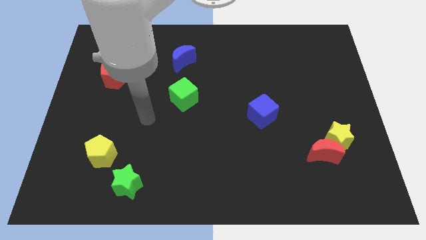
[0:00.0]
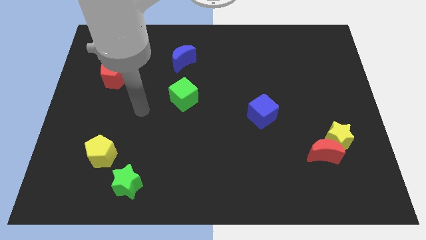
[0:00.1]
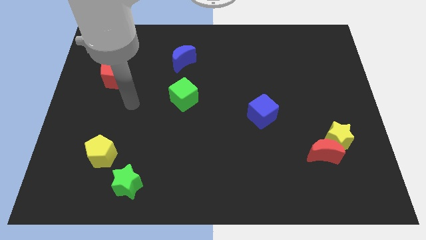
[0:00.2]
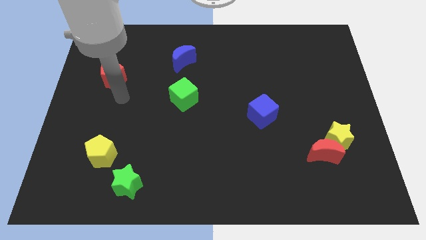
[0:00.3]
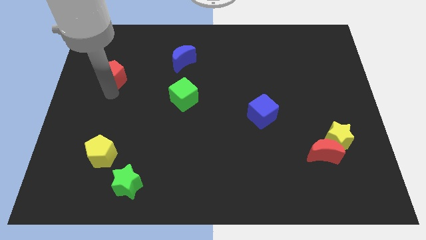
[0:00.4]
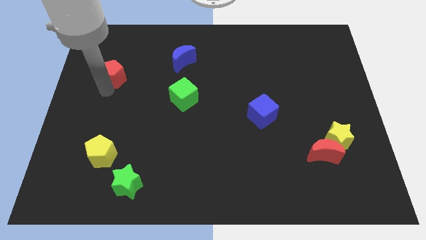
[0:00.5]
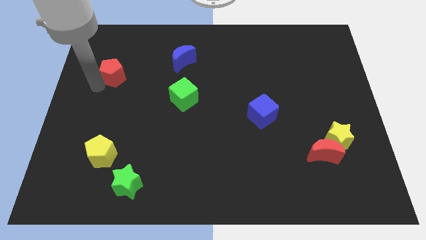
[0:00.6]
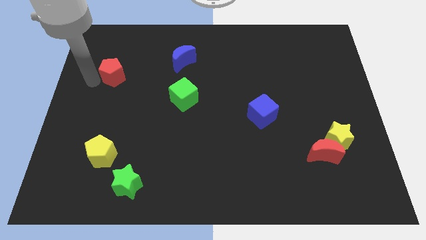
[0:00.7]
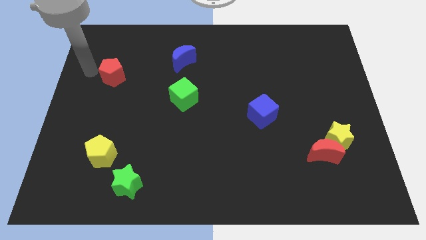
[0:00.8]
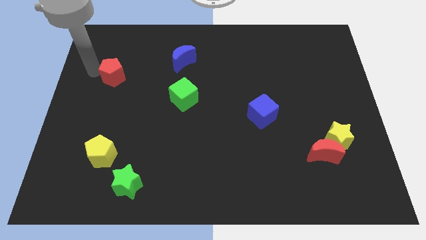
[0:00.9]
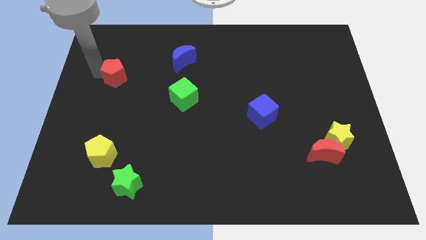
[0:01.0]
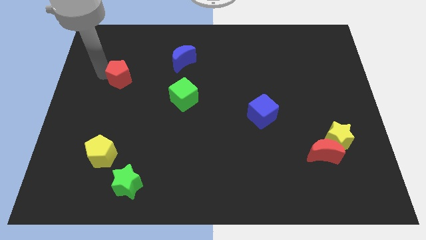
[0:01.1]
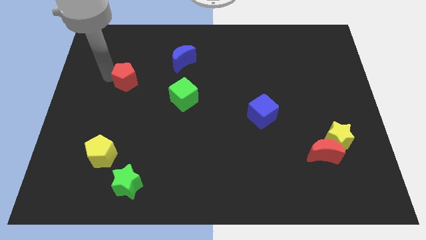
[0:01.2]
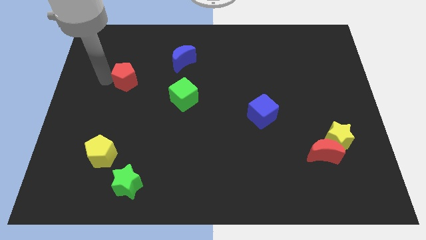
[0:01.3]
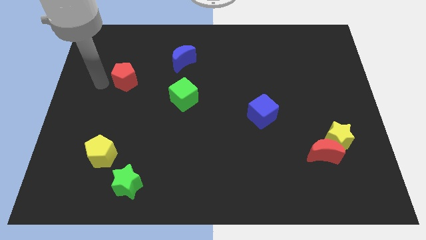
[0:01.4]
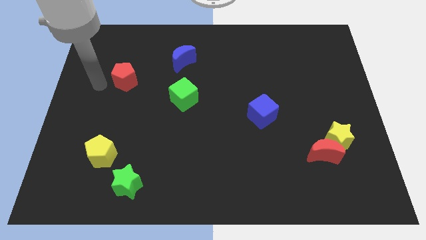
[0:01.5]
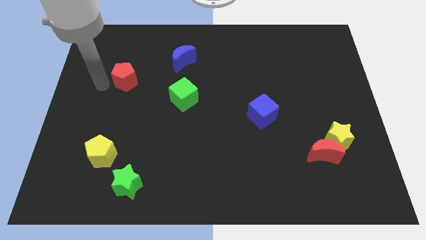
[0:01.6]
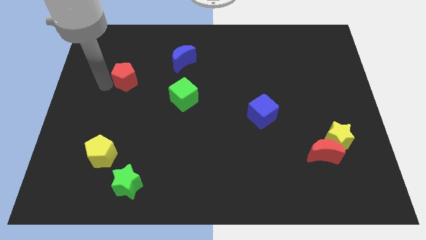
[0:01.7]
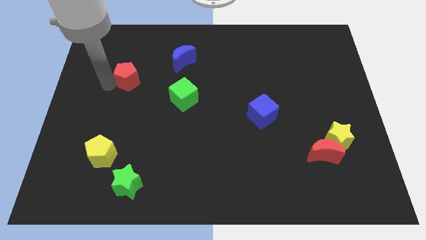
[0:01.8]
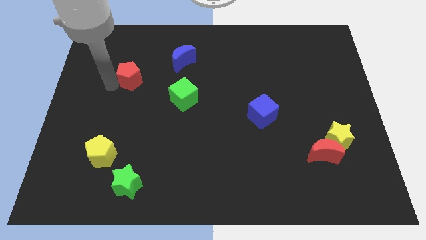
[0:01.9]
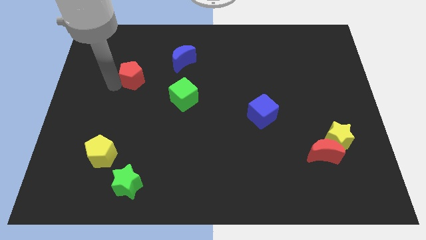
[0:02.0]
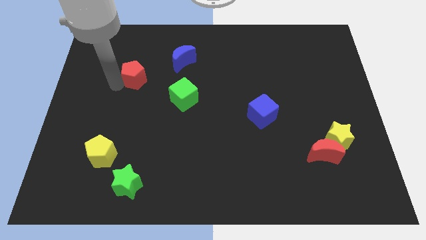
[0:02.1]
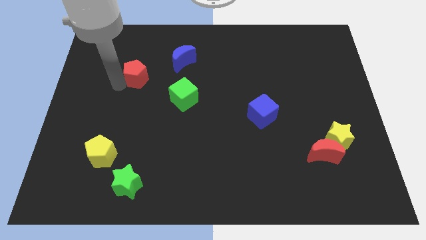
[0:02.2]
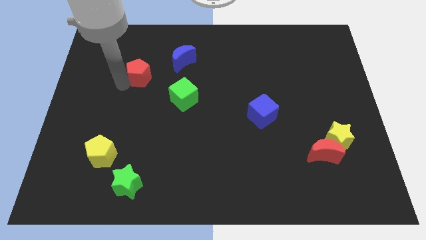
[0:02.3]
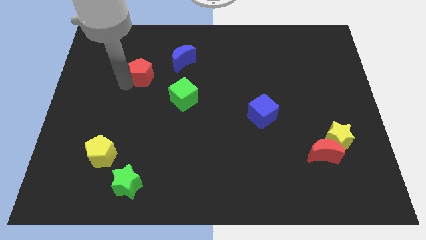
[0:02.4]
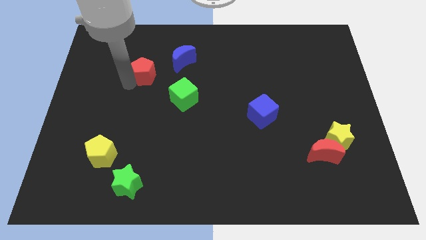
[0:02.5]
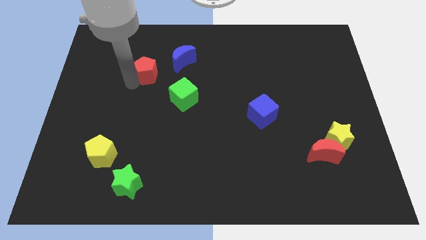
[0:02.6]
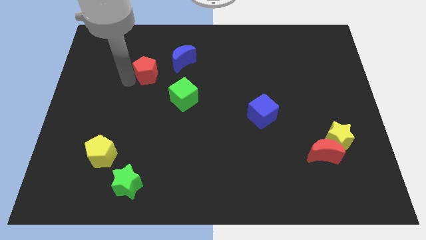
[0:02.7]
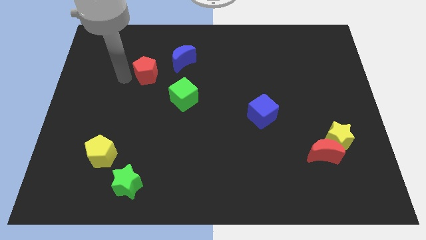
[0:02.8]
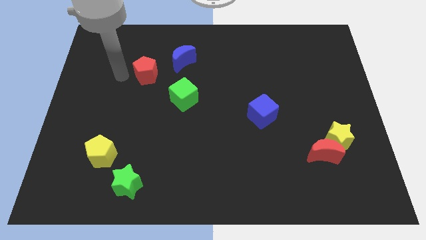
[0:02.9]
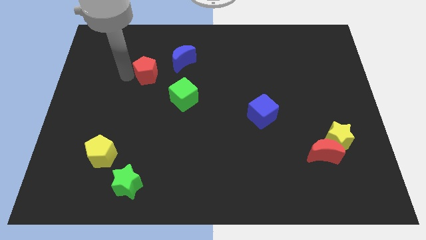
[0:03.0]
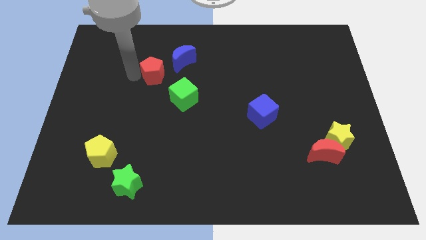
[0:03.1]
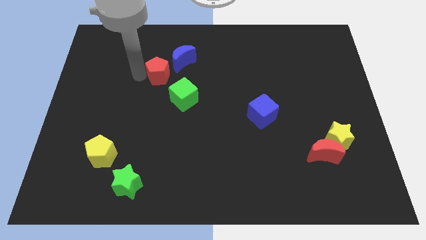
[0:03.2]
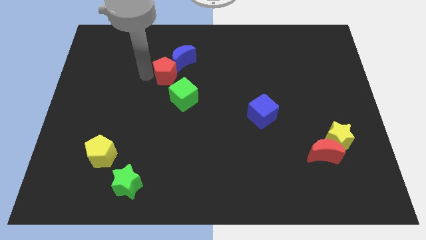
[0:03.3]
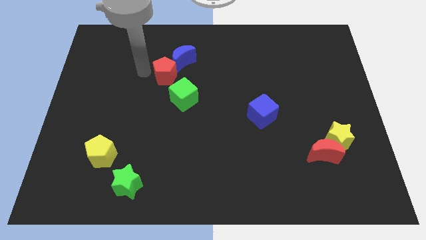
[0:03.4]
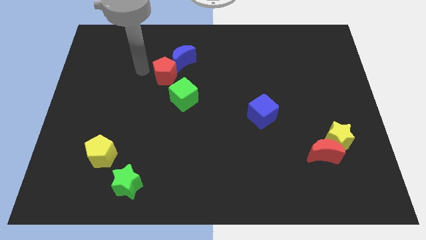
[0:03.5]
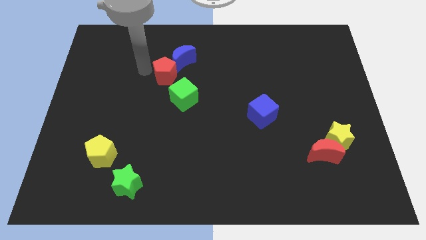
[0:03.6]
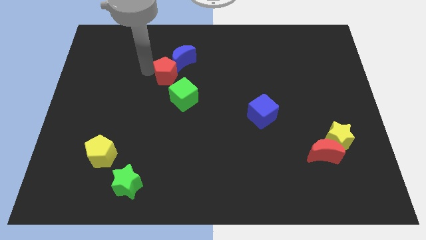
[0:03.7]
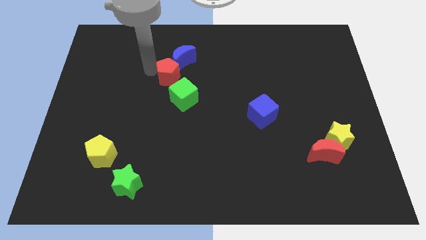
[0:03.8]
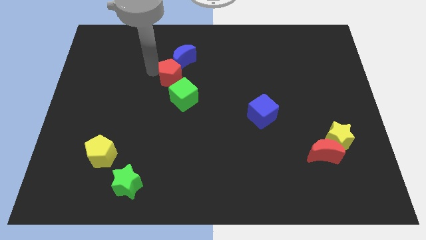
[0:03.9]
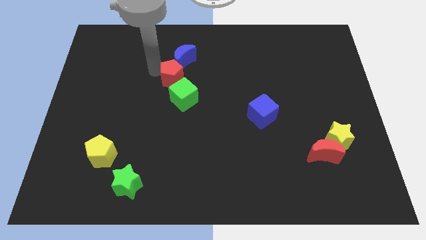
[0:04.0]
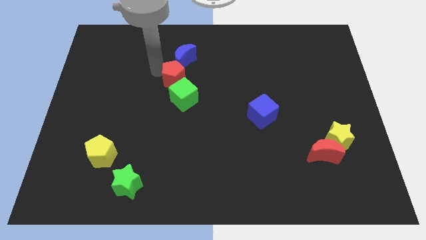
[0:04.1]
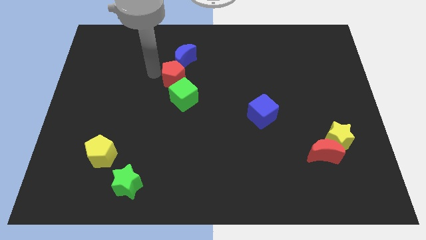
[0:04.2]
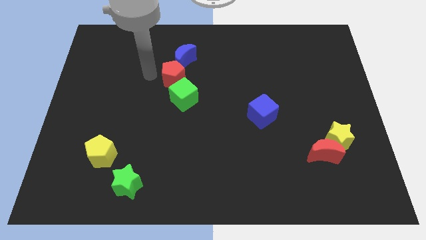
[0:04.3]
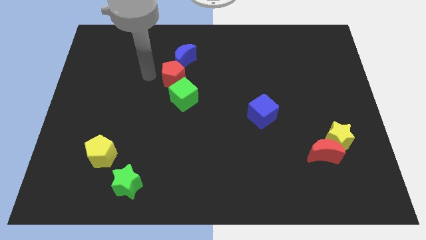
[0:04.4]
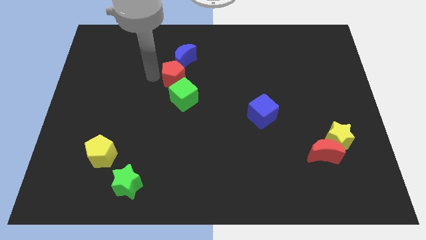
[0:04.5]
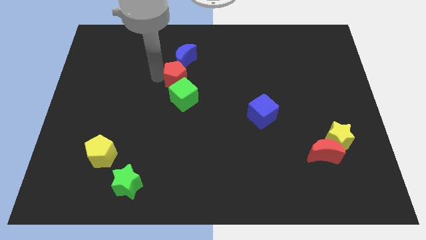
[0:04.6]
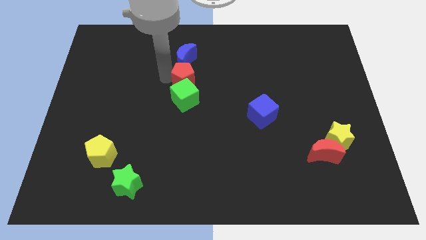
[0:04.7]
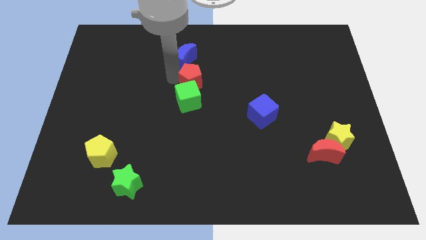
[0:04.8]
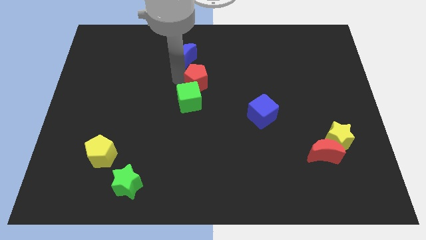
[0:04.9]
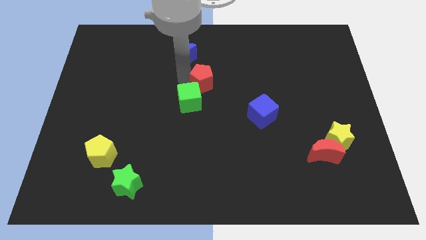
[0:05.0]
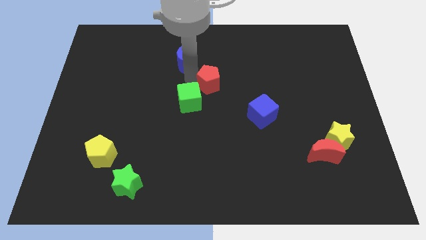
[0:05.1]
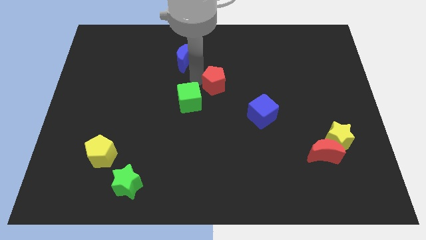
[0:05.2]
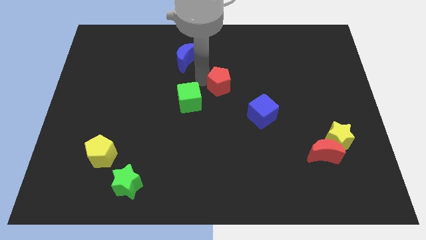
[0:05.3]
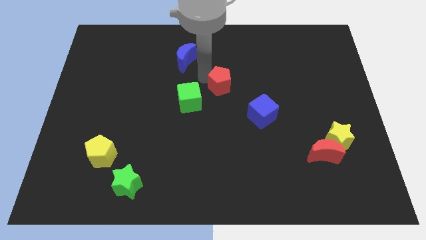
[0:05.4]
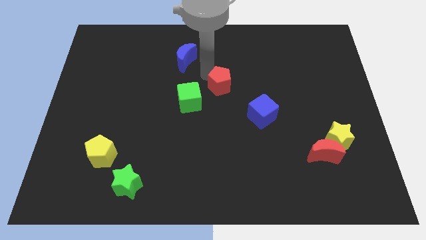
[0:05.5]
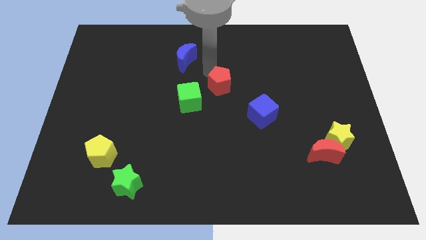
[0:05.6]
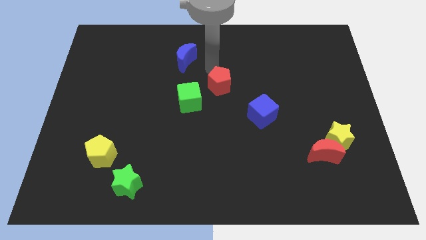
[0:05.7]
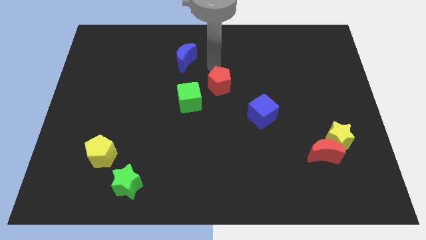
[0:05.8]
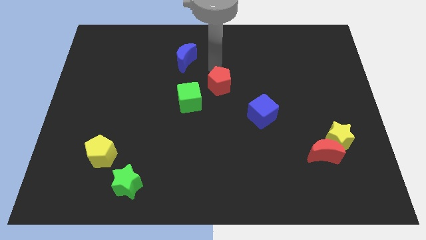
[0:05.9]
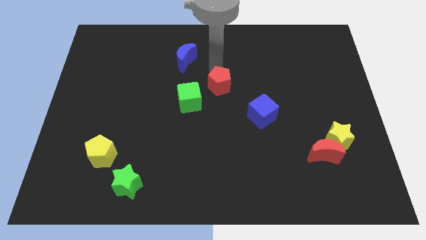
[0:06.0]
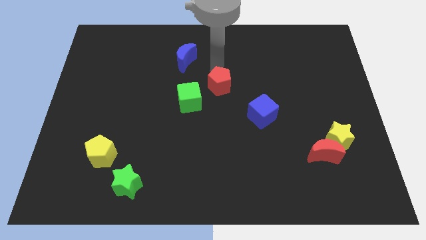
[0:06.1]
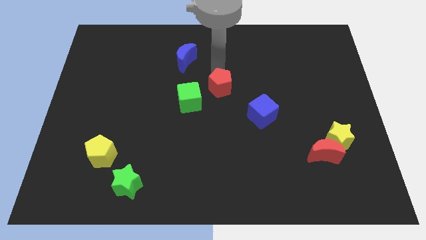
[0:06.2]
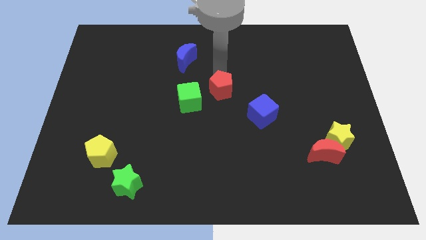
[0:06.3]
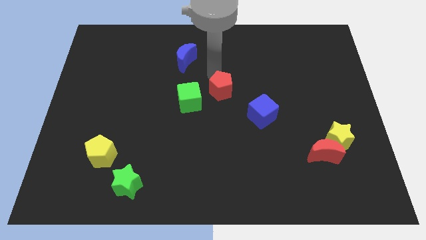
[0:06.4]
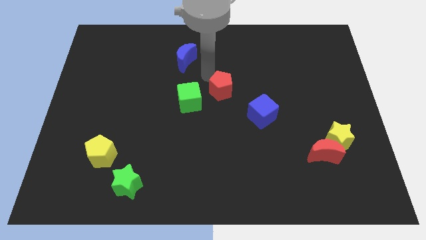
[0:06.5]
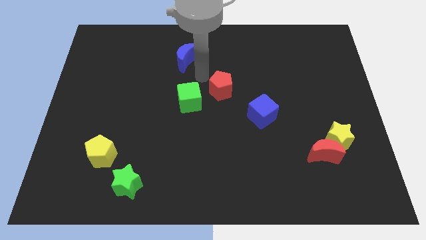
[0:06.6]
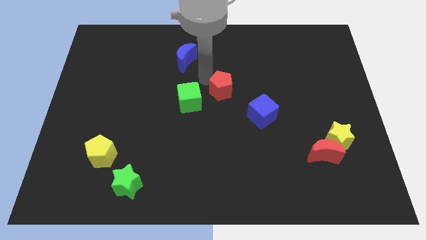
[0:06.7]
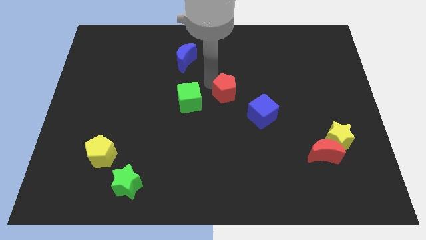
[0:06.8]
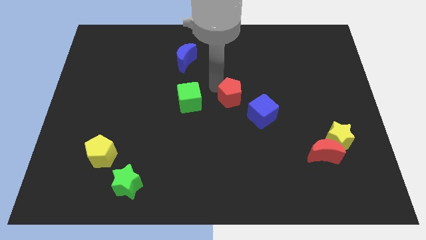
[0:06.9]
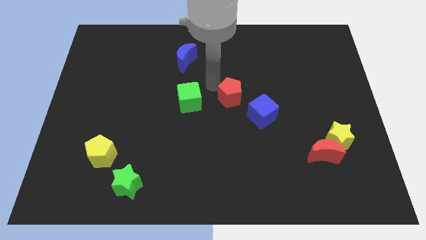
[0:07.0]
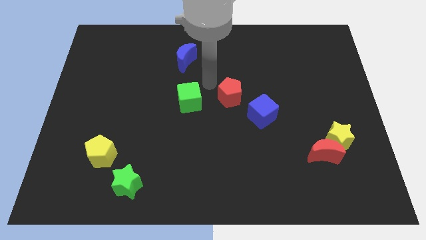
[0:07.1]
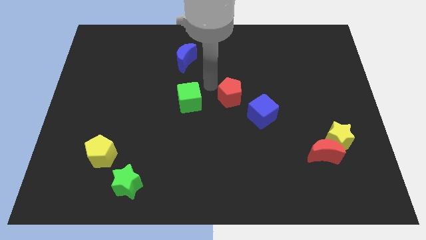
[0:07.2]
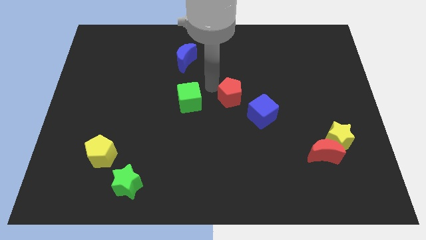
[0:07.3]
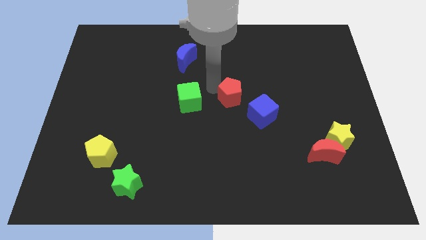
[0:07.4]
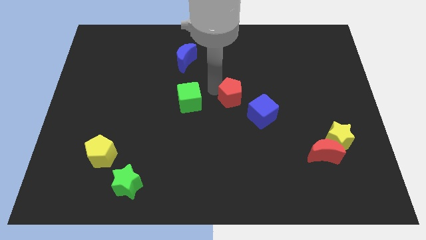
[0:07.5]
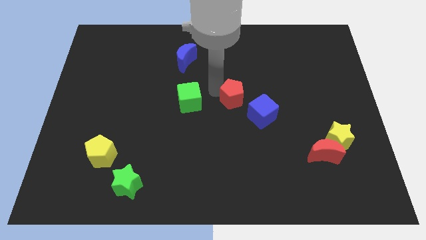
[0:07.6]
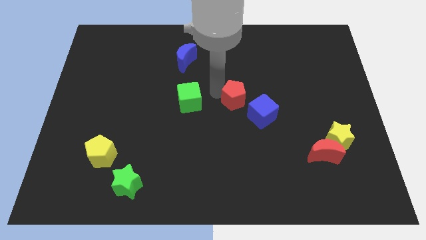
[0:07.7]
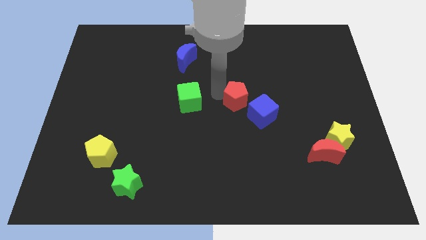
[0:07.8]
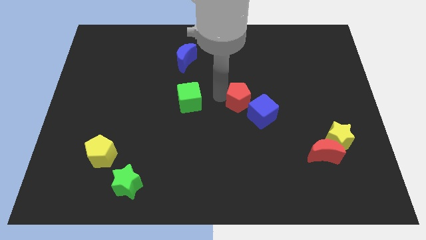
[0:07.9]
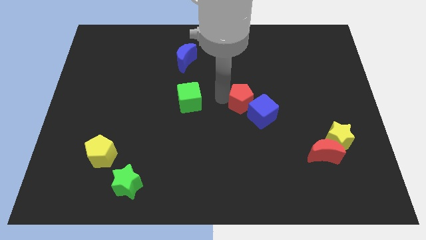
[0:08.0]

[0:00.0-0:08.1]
push the red pentagon next to the blue cube
